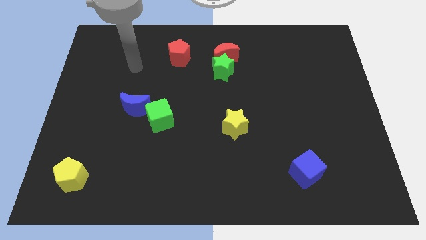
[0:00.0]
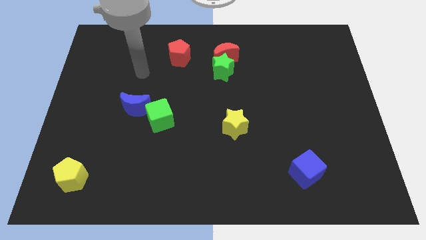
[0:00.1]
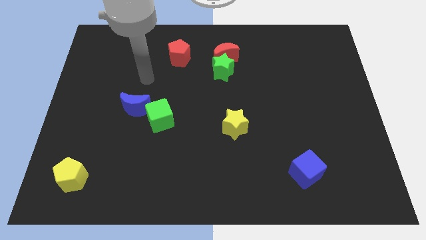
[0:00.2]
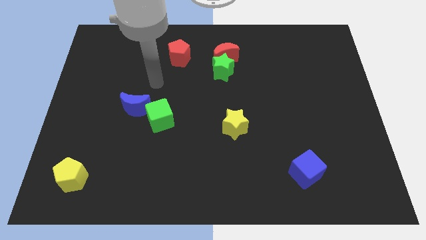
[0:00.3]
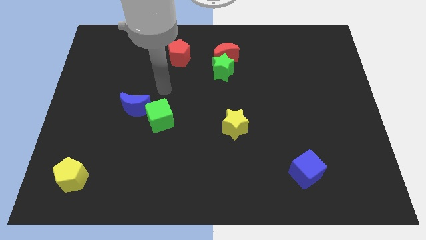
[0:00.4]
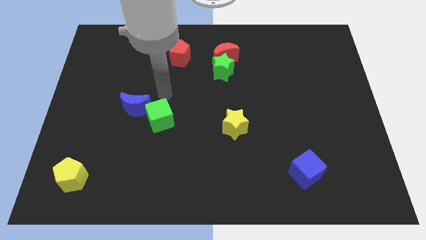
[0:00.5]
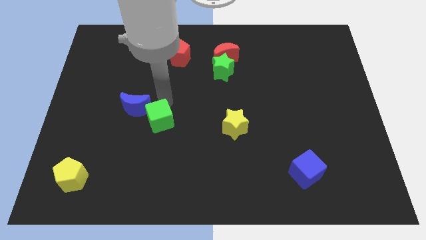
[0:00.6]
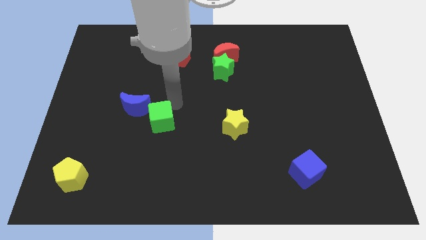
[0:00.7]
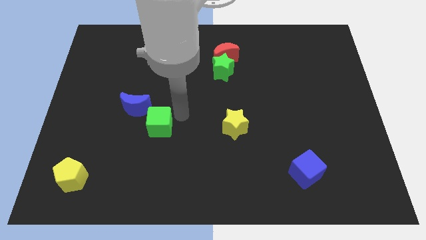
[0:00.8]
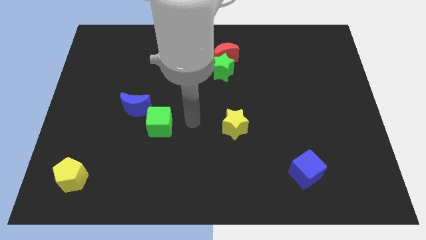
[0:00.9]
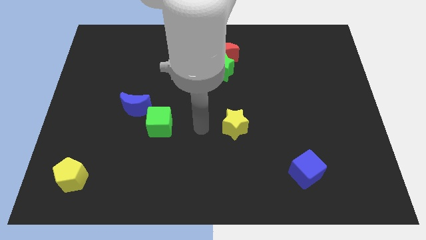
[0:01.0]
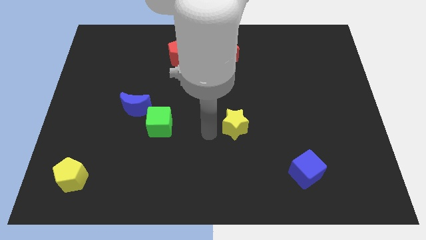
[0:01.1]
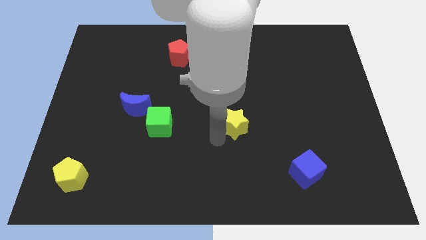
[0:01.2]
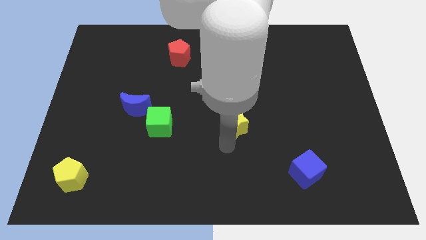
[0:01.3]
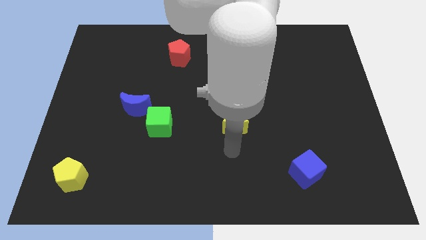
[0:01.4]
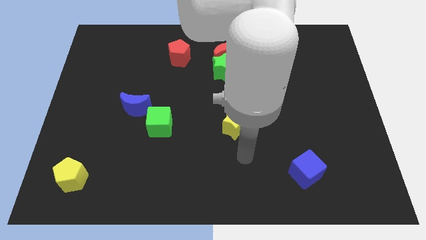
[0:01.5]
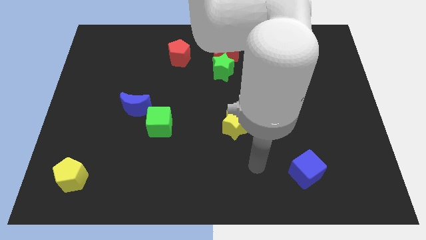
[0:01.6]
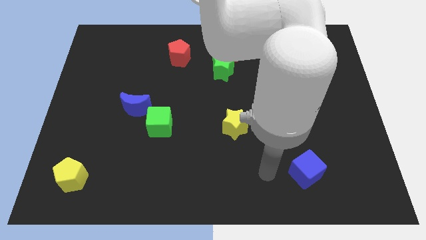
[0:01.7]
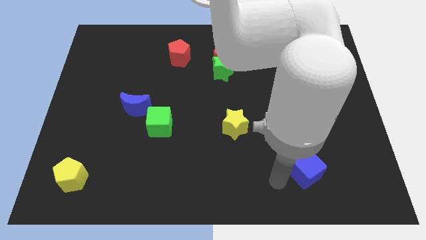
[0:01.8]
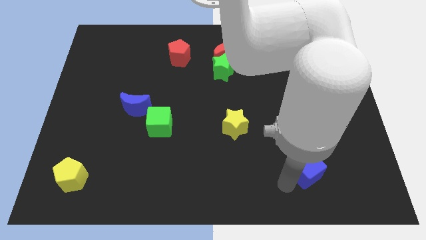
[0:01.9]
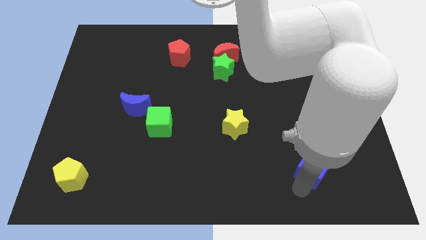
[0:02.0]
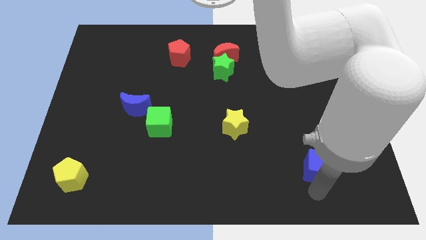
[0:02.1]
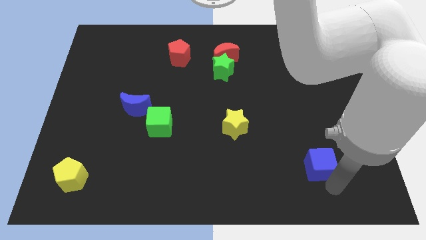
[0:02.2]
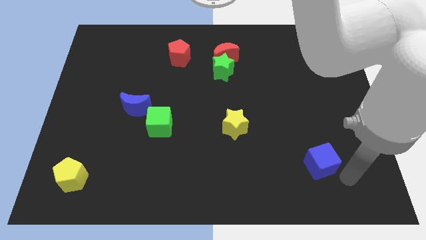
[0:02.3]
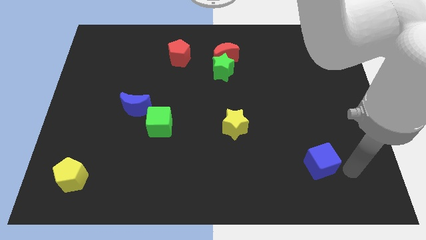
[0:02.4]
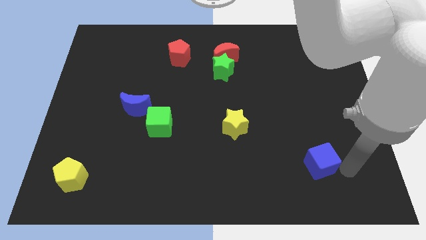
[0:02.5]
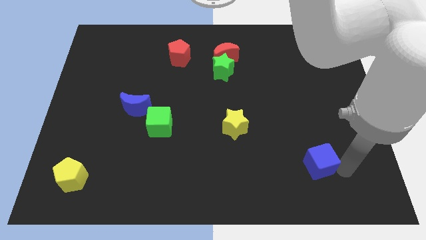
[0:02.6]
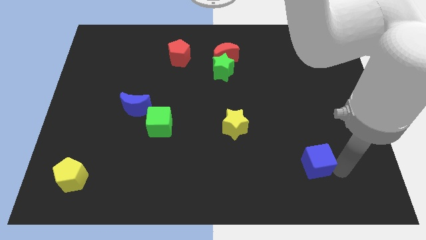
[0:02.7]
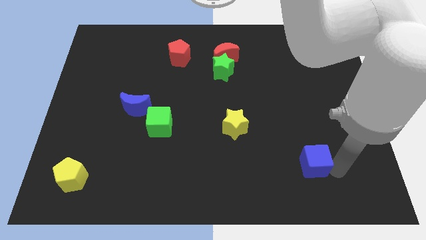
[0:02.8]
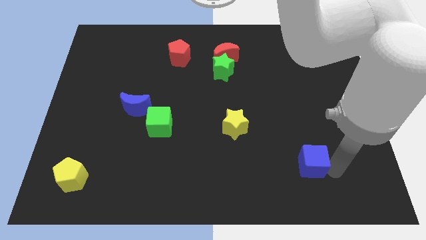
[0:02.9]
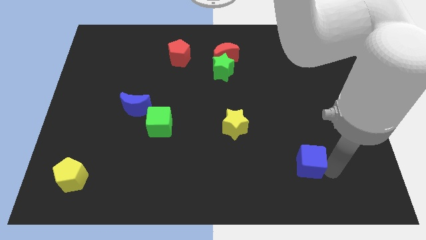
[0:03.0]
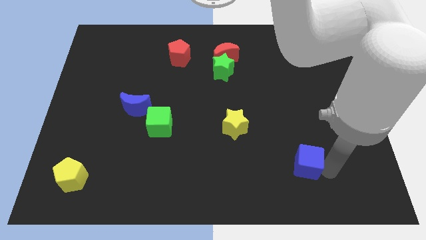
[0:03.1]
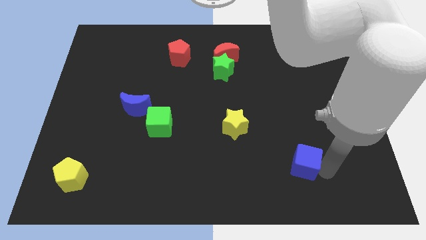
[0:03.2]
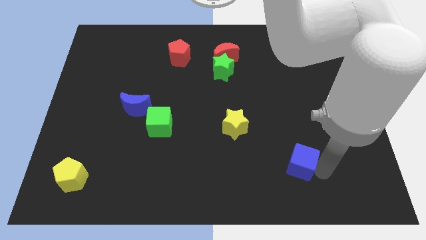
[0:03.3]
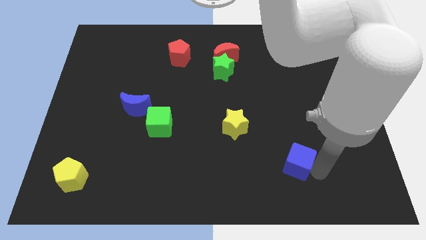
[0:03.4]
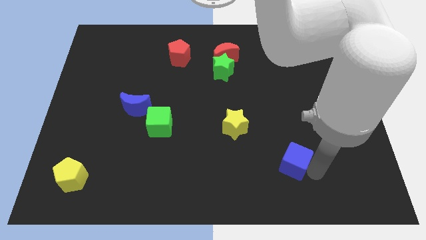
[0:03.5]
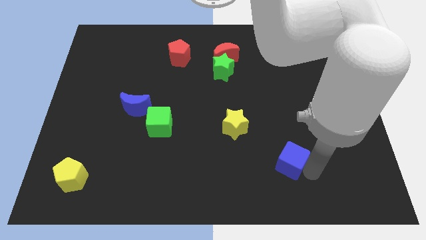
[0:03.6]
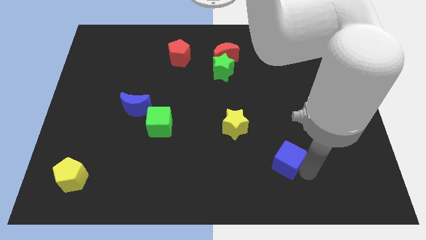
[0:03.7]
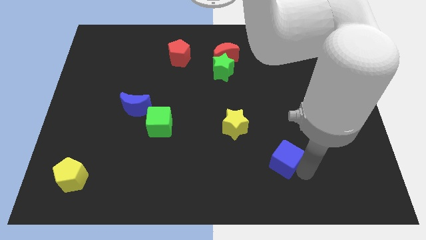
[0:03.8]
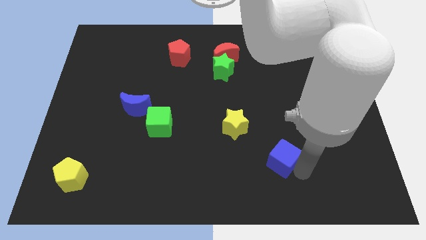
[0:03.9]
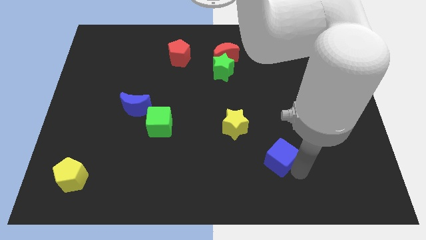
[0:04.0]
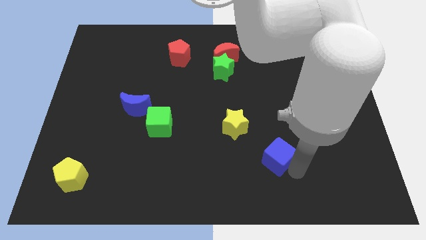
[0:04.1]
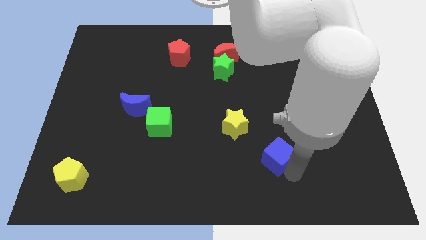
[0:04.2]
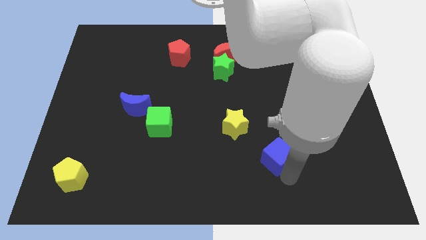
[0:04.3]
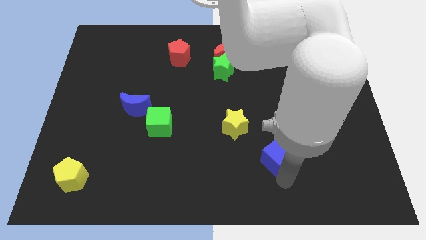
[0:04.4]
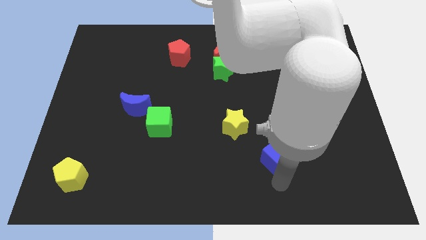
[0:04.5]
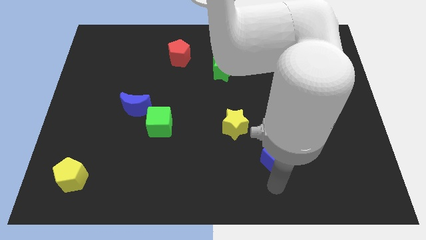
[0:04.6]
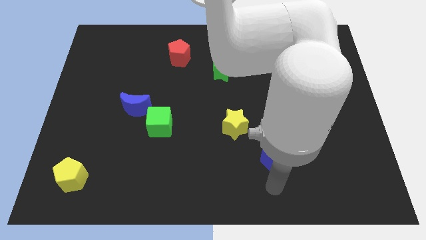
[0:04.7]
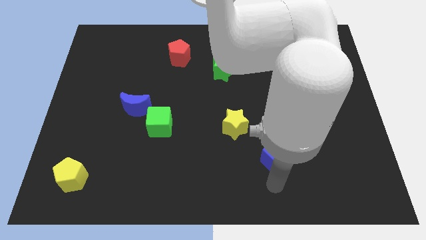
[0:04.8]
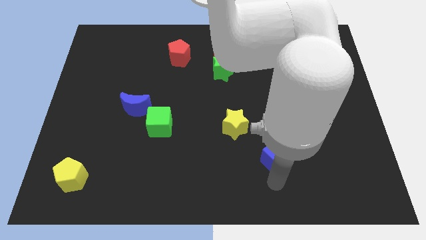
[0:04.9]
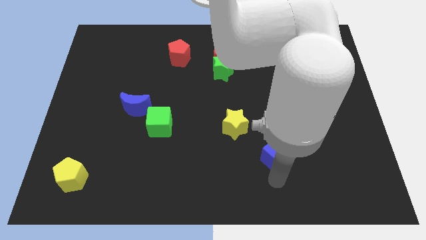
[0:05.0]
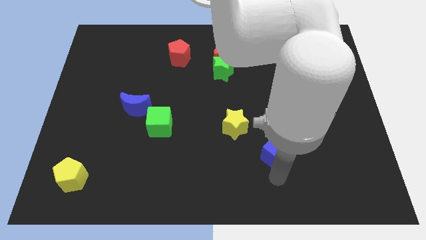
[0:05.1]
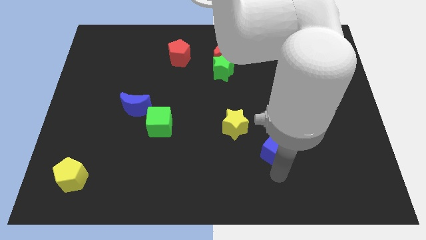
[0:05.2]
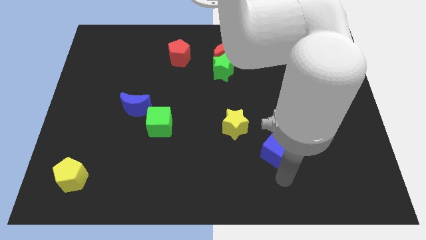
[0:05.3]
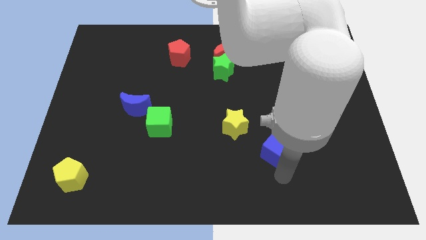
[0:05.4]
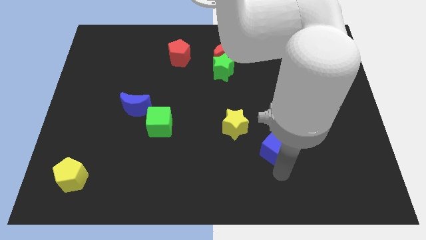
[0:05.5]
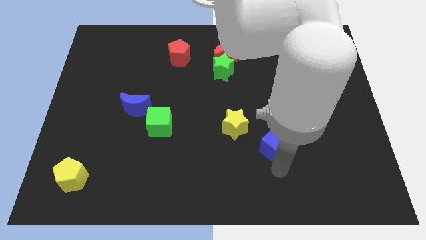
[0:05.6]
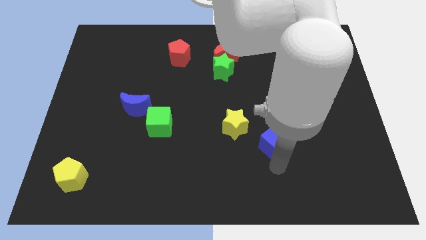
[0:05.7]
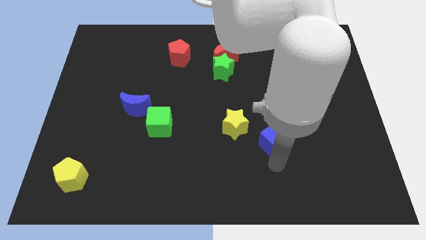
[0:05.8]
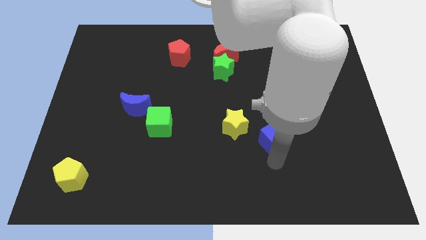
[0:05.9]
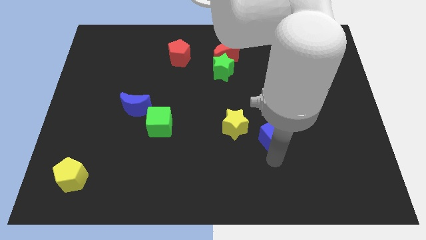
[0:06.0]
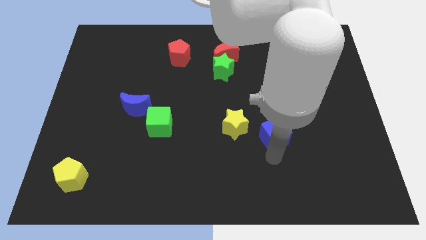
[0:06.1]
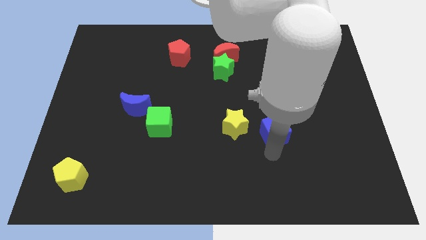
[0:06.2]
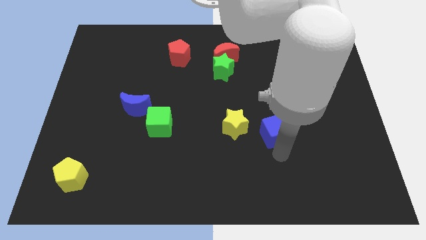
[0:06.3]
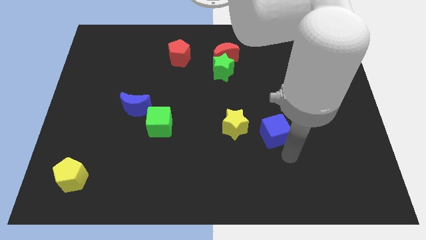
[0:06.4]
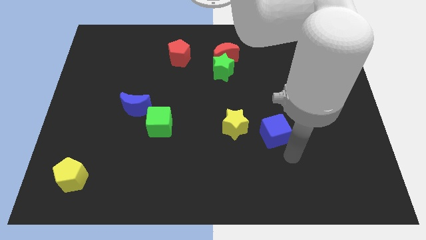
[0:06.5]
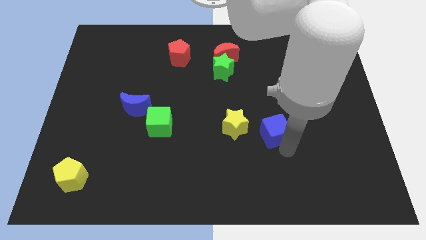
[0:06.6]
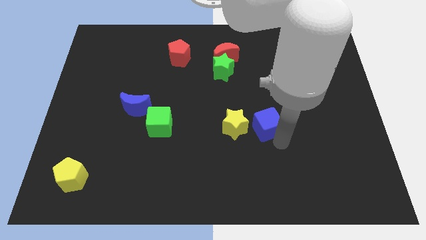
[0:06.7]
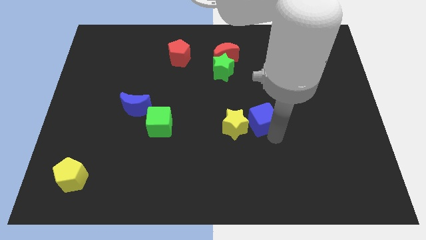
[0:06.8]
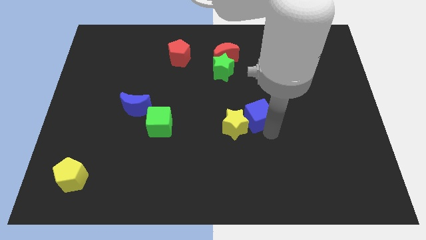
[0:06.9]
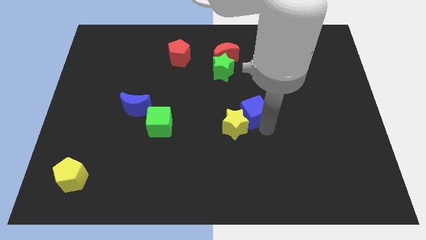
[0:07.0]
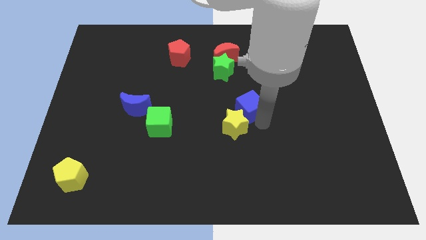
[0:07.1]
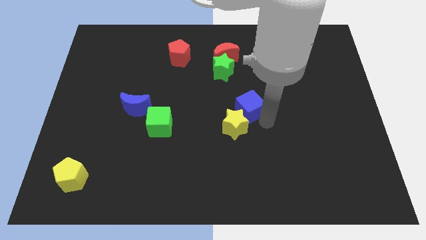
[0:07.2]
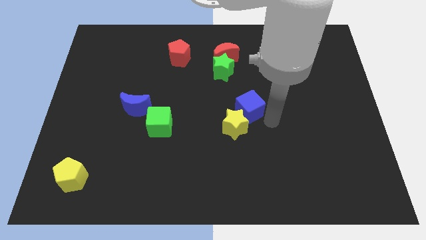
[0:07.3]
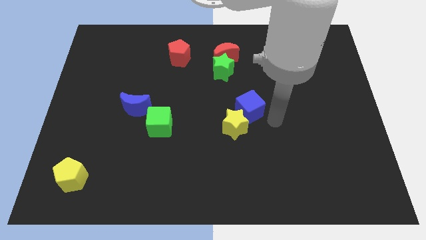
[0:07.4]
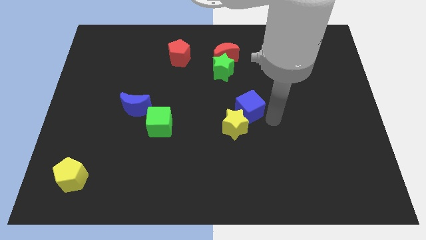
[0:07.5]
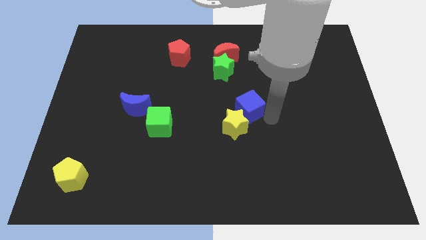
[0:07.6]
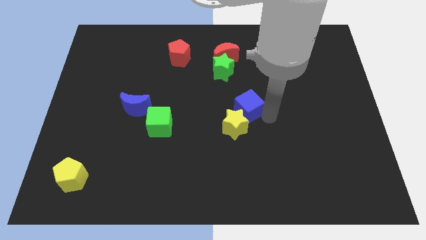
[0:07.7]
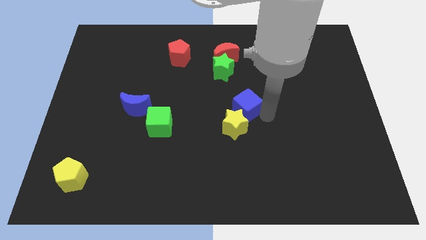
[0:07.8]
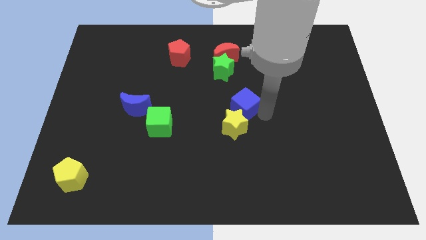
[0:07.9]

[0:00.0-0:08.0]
slide the blue cube upwards and left

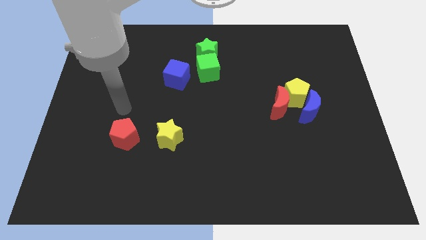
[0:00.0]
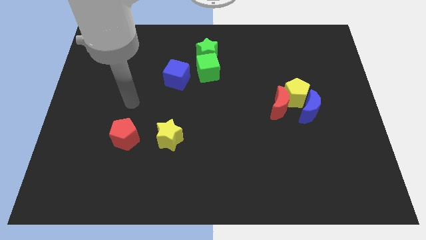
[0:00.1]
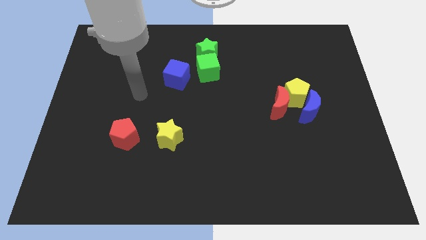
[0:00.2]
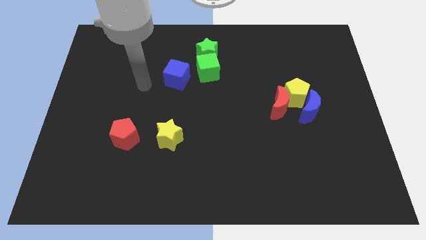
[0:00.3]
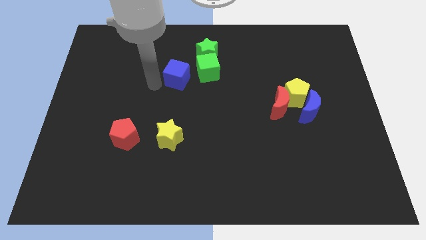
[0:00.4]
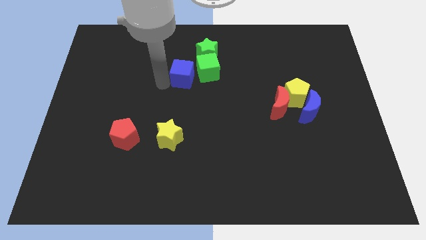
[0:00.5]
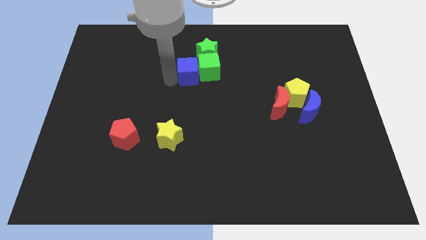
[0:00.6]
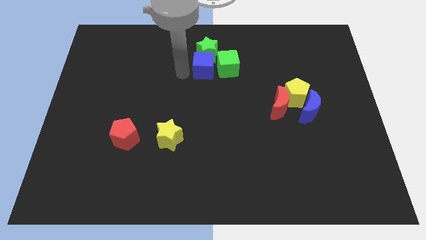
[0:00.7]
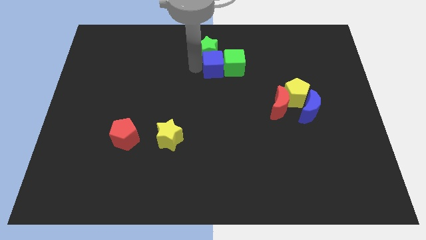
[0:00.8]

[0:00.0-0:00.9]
slide the green cube to the right a little
